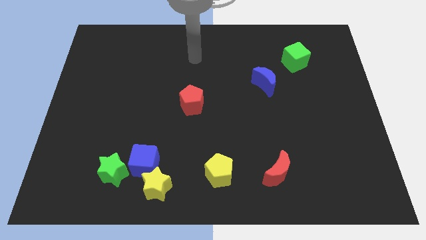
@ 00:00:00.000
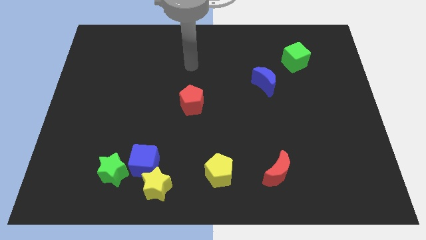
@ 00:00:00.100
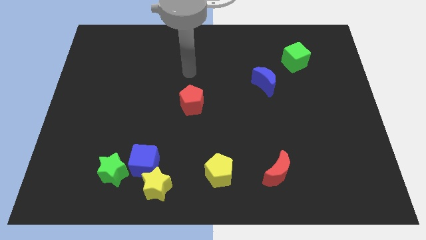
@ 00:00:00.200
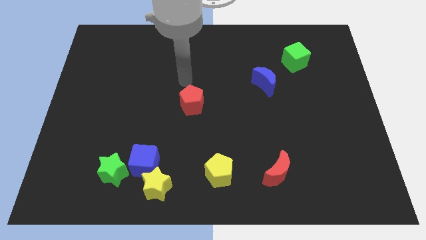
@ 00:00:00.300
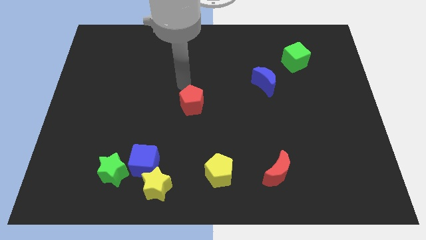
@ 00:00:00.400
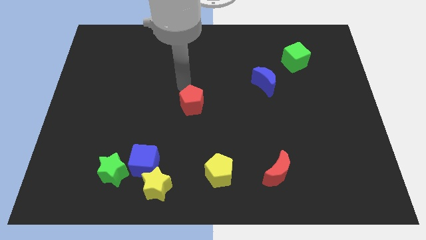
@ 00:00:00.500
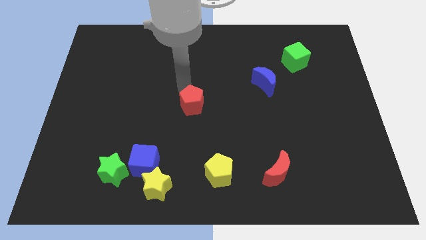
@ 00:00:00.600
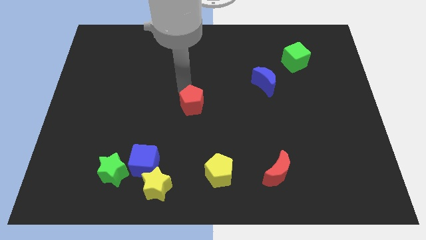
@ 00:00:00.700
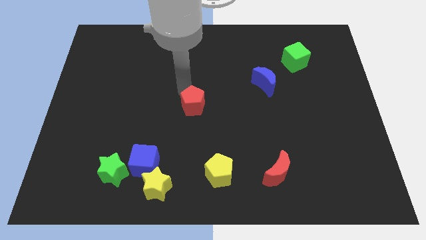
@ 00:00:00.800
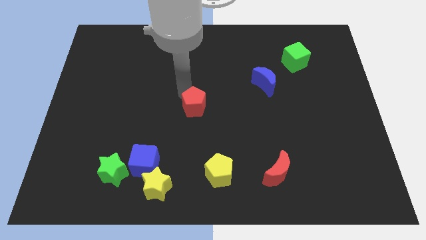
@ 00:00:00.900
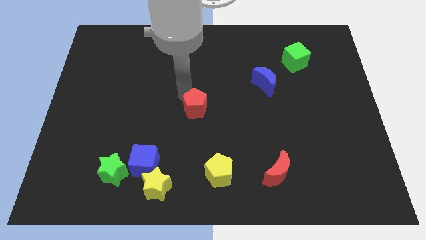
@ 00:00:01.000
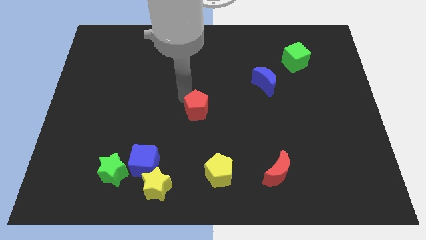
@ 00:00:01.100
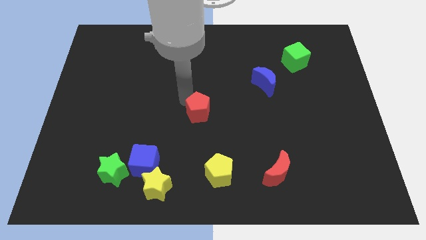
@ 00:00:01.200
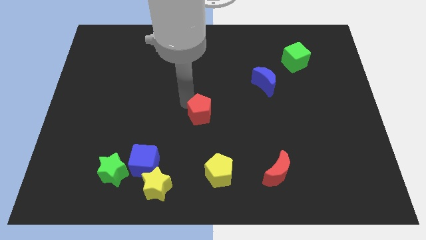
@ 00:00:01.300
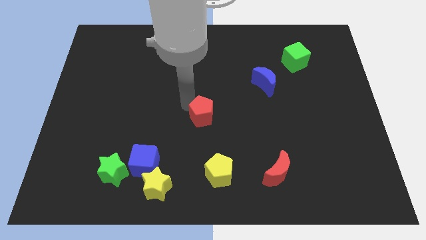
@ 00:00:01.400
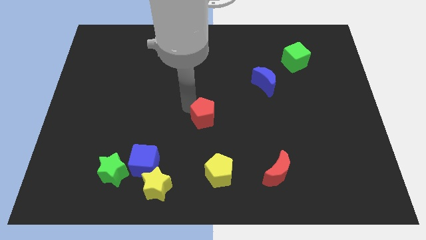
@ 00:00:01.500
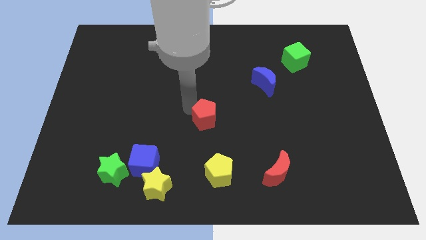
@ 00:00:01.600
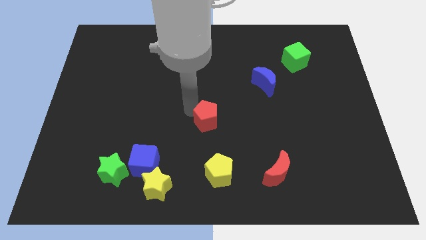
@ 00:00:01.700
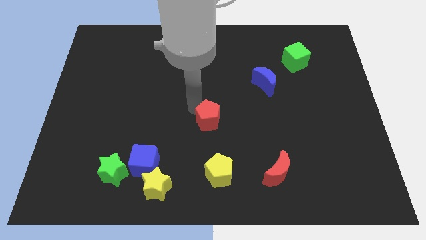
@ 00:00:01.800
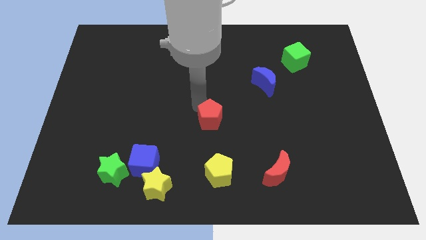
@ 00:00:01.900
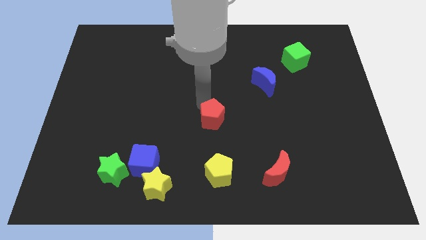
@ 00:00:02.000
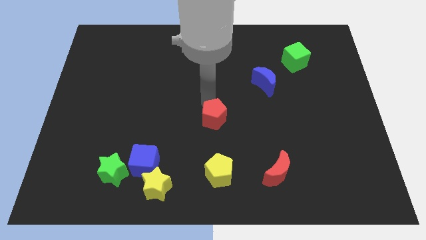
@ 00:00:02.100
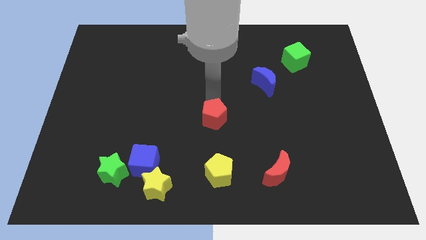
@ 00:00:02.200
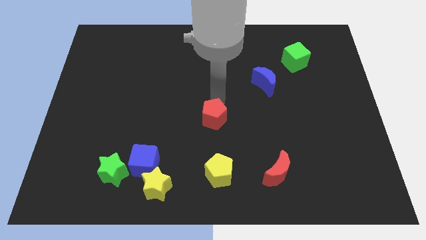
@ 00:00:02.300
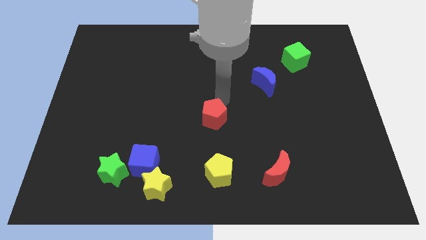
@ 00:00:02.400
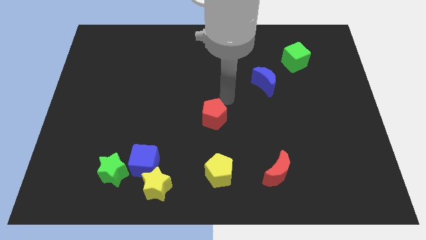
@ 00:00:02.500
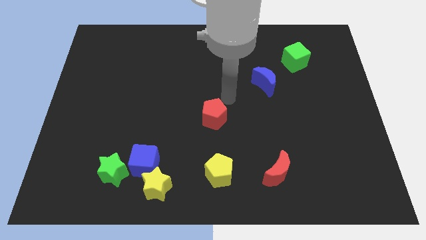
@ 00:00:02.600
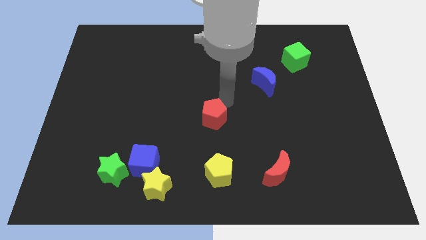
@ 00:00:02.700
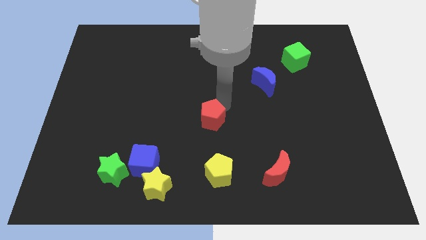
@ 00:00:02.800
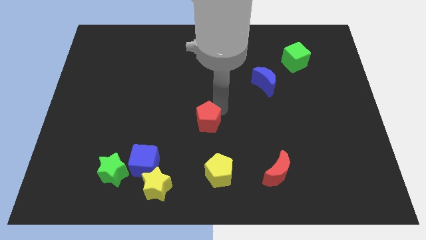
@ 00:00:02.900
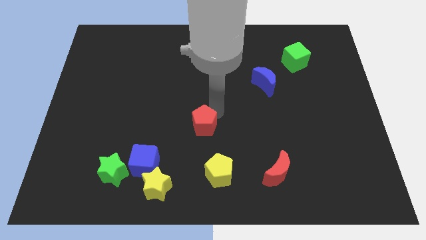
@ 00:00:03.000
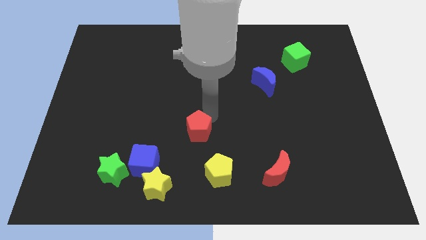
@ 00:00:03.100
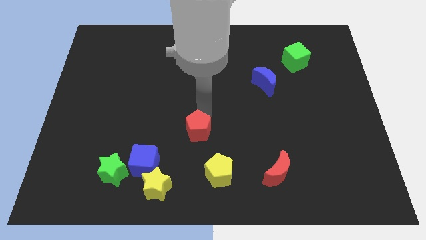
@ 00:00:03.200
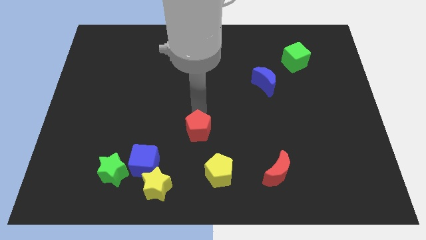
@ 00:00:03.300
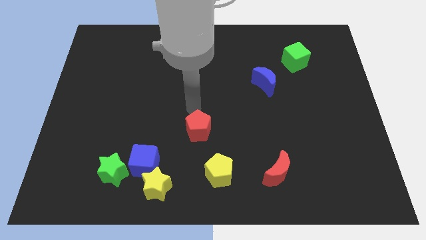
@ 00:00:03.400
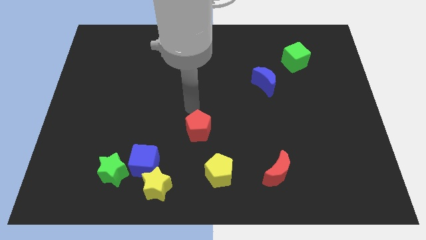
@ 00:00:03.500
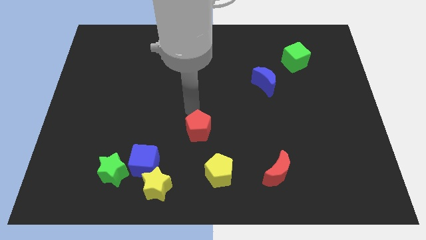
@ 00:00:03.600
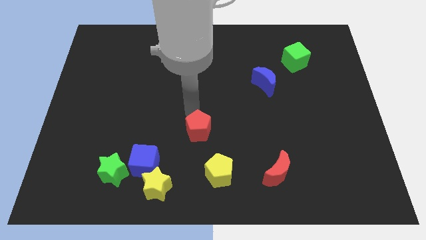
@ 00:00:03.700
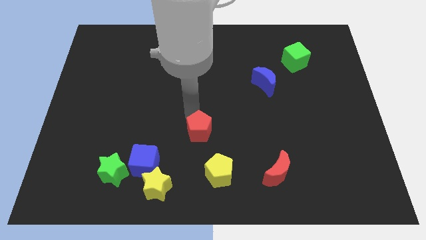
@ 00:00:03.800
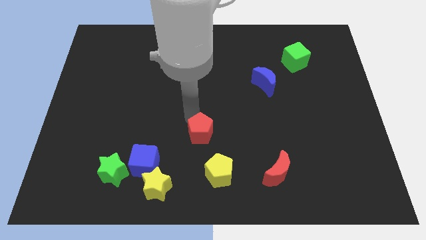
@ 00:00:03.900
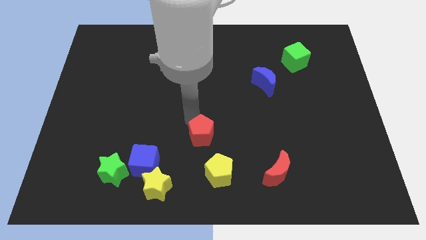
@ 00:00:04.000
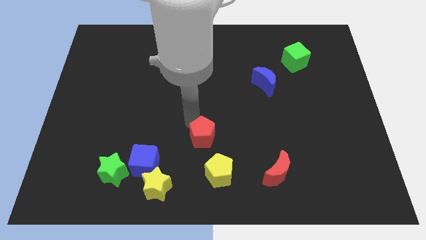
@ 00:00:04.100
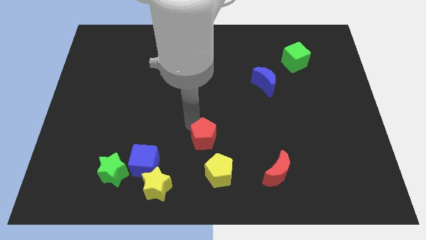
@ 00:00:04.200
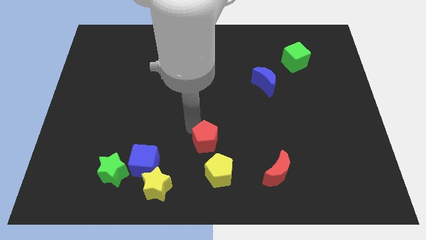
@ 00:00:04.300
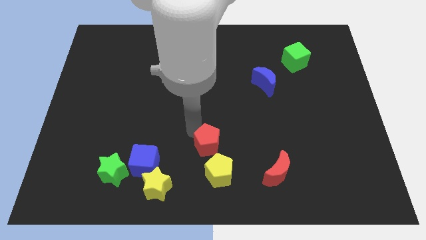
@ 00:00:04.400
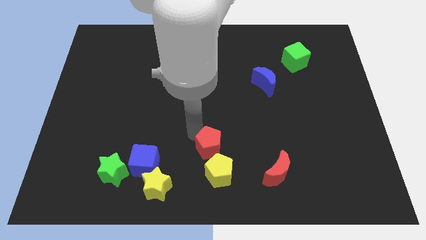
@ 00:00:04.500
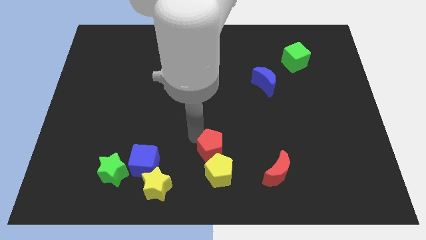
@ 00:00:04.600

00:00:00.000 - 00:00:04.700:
slide the red pentagon next to the yellow pentagon

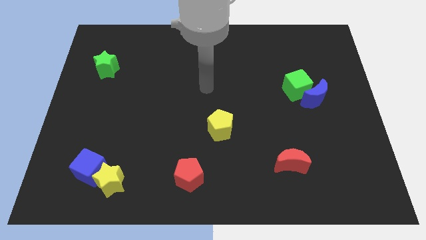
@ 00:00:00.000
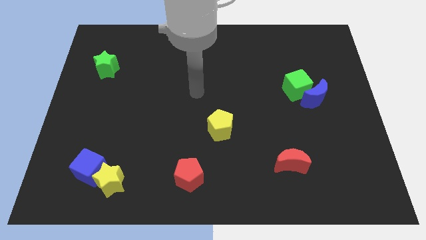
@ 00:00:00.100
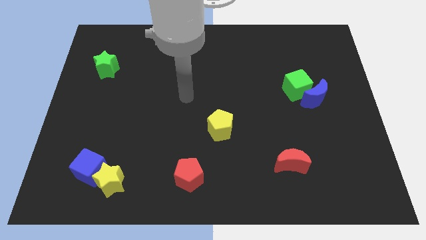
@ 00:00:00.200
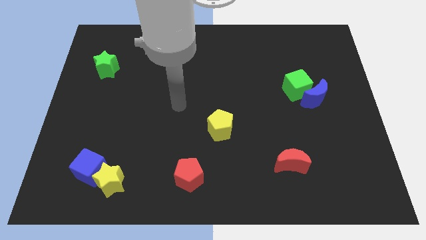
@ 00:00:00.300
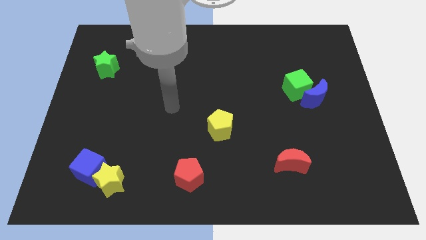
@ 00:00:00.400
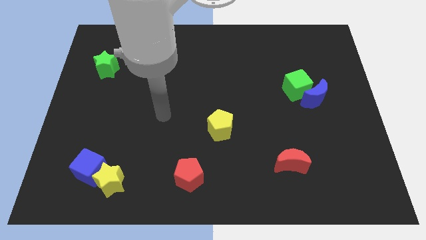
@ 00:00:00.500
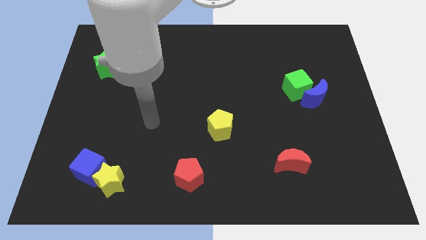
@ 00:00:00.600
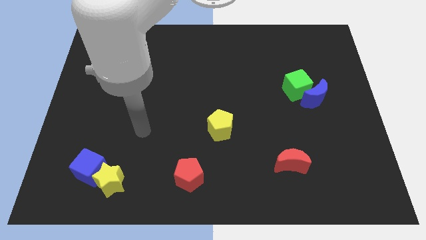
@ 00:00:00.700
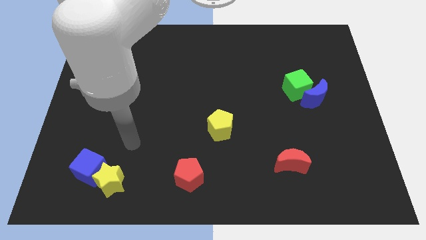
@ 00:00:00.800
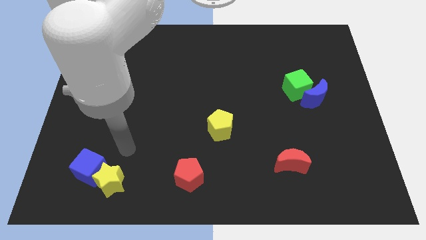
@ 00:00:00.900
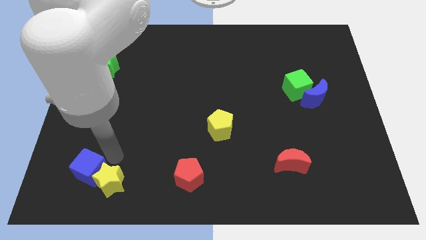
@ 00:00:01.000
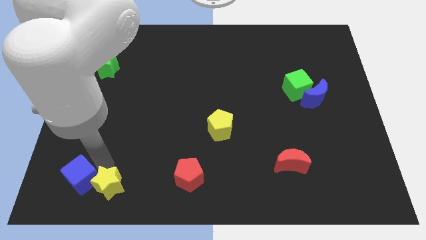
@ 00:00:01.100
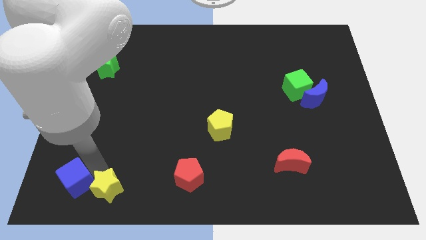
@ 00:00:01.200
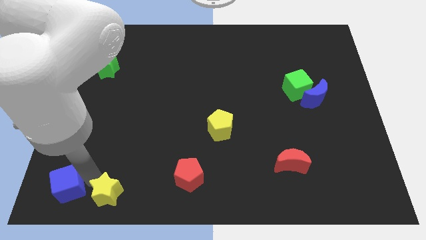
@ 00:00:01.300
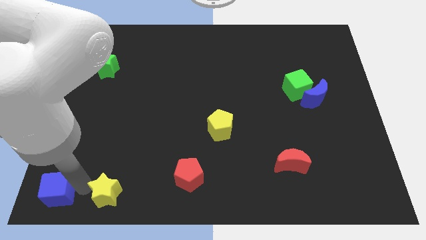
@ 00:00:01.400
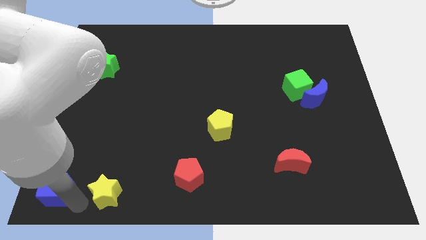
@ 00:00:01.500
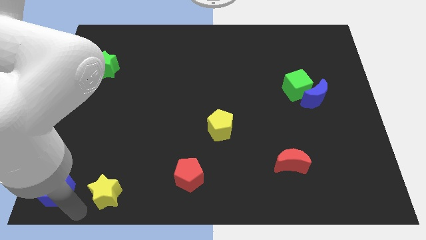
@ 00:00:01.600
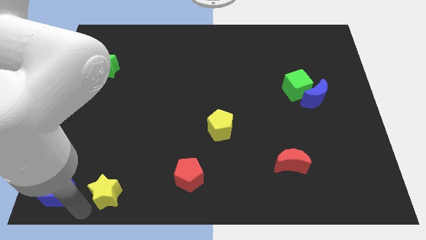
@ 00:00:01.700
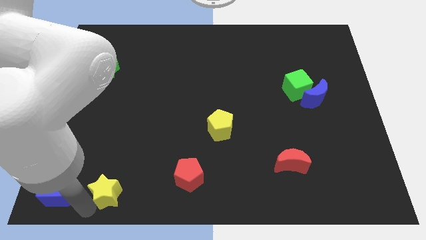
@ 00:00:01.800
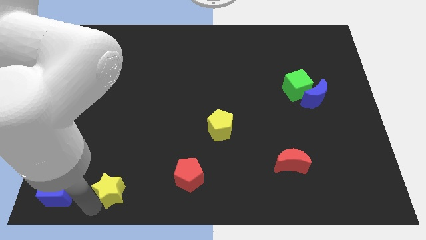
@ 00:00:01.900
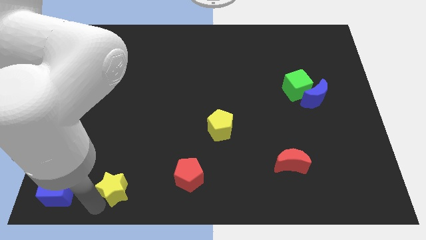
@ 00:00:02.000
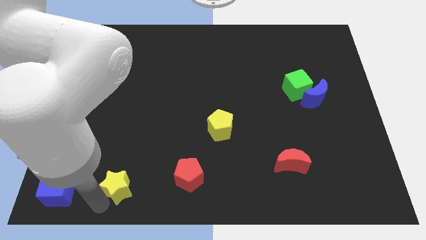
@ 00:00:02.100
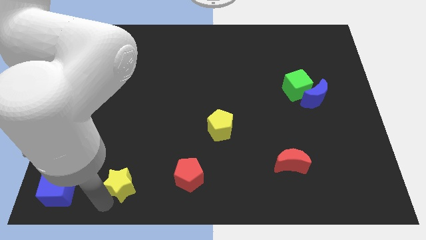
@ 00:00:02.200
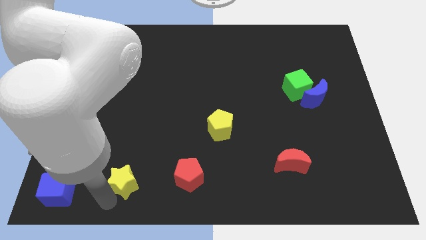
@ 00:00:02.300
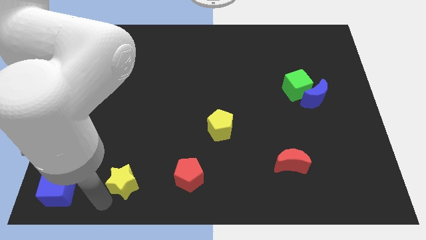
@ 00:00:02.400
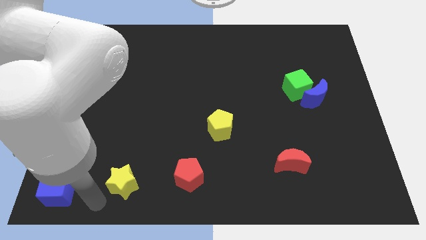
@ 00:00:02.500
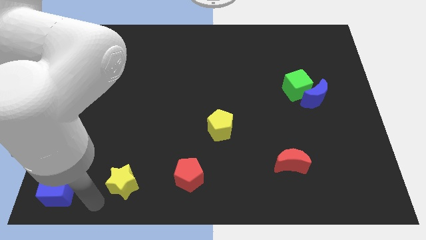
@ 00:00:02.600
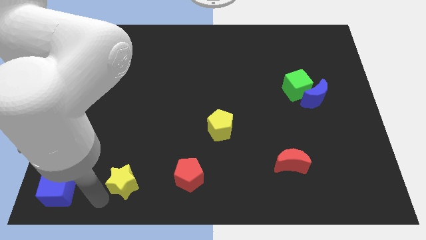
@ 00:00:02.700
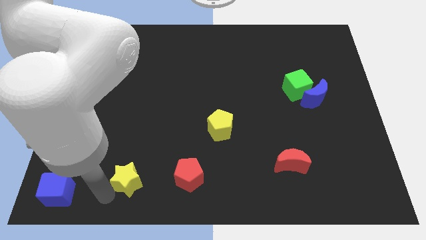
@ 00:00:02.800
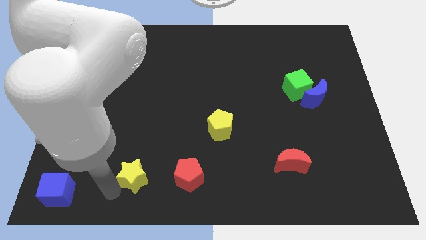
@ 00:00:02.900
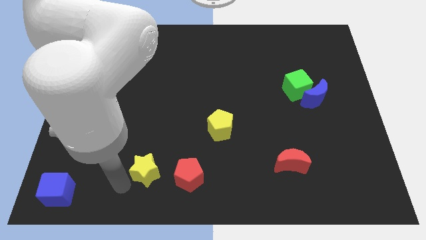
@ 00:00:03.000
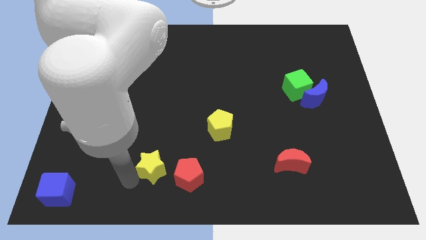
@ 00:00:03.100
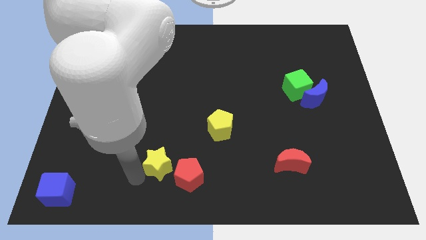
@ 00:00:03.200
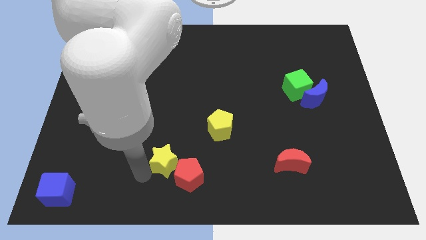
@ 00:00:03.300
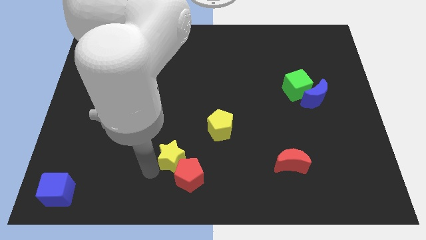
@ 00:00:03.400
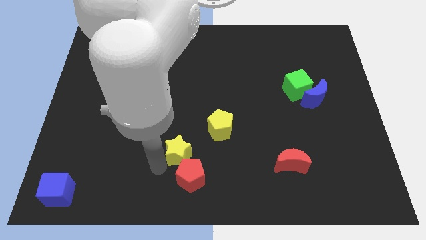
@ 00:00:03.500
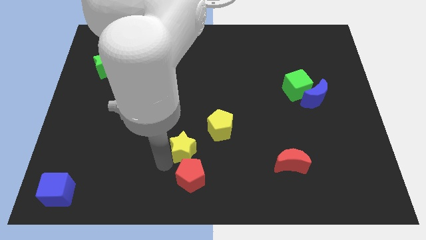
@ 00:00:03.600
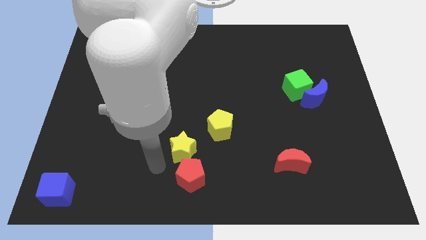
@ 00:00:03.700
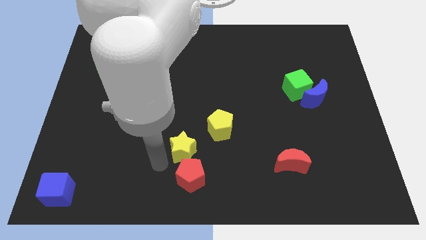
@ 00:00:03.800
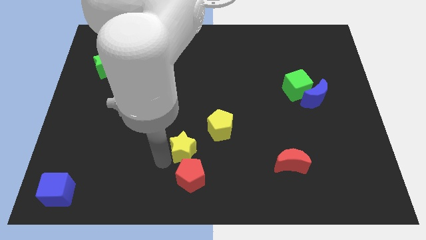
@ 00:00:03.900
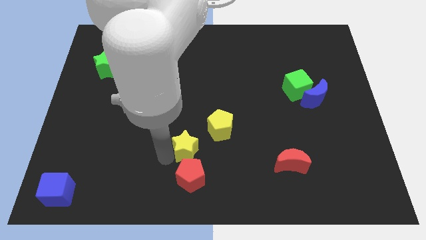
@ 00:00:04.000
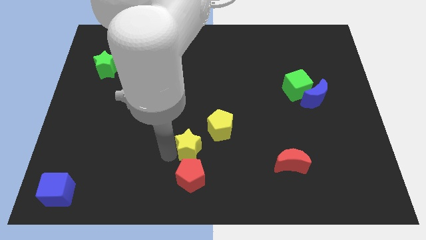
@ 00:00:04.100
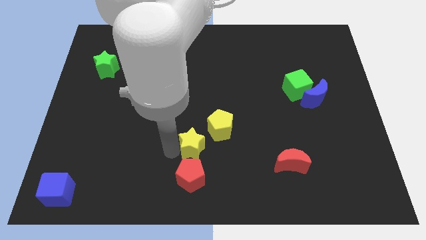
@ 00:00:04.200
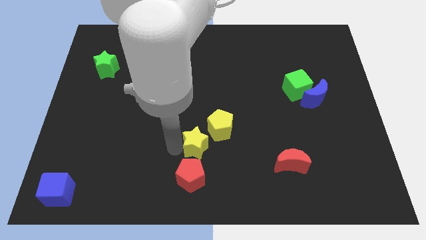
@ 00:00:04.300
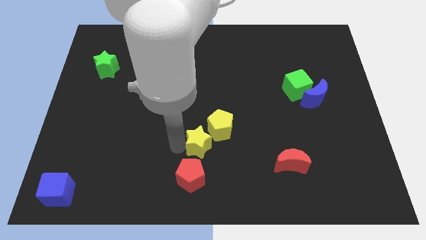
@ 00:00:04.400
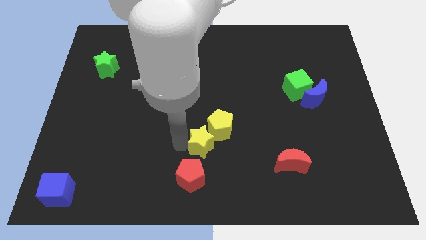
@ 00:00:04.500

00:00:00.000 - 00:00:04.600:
push the yellow star next to the yellow pentagon
